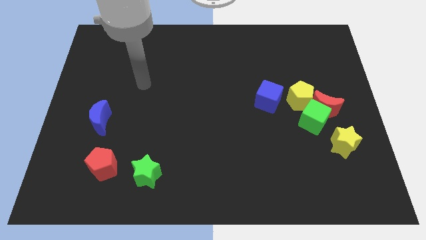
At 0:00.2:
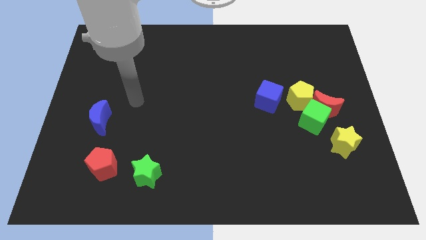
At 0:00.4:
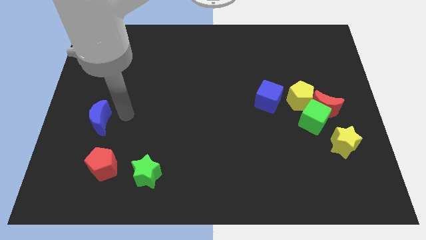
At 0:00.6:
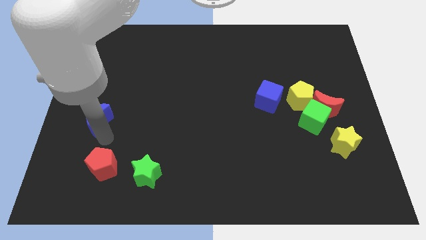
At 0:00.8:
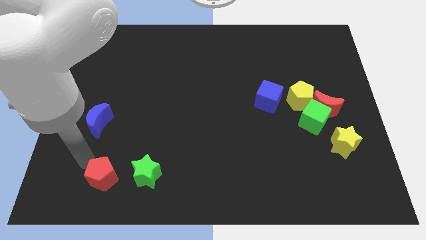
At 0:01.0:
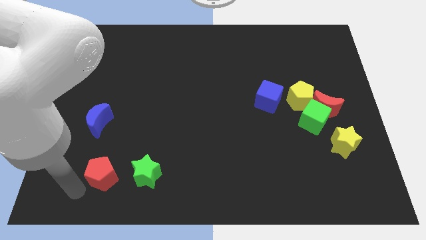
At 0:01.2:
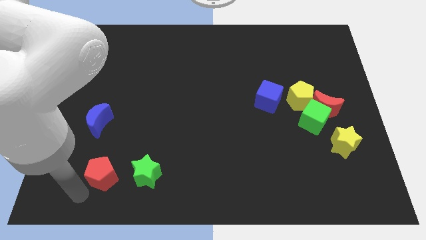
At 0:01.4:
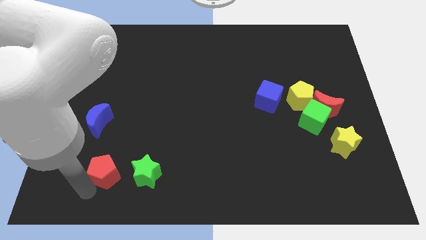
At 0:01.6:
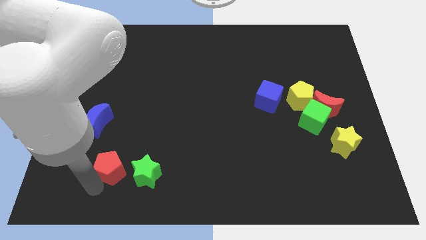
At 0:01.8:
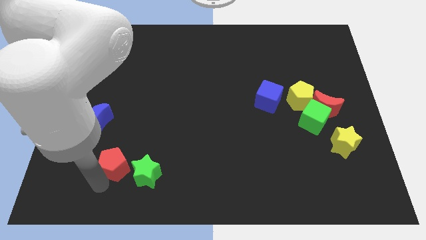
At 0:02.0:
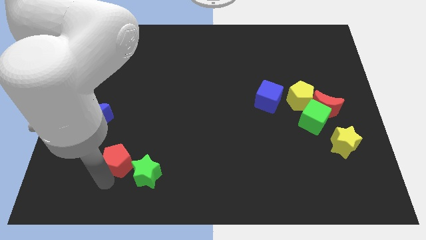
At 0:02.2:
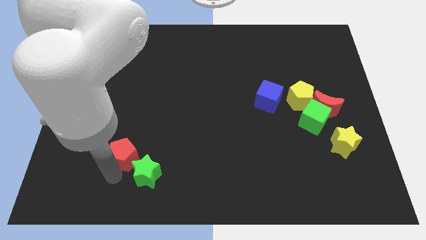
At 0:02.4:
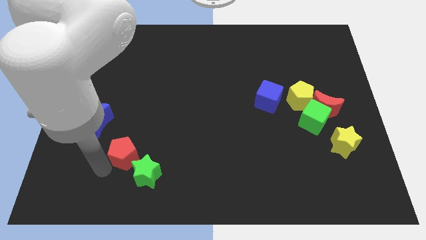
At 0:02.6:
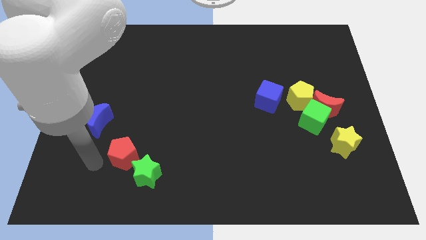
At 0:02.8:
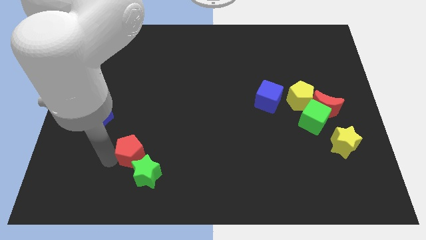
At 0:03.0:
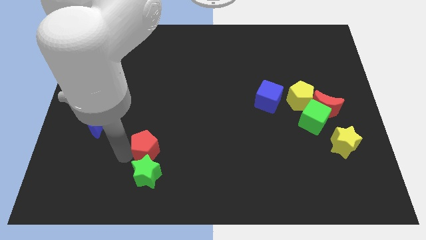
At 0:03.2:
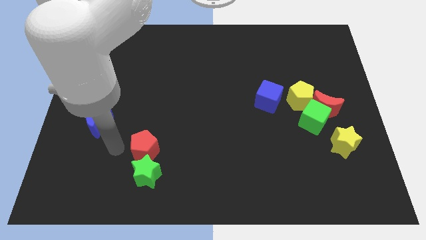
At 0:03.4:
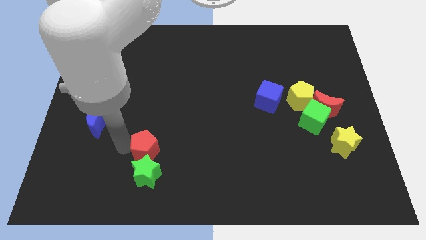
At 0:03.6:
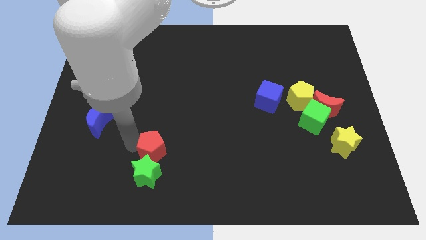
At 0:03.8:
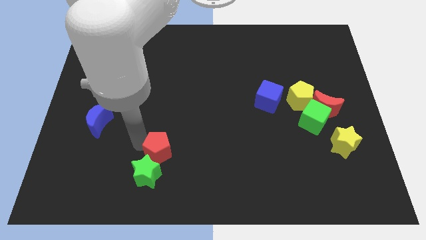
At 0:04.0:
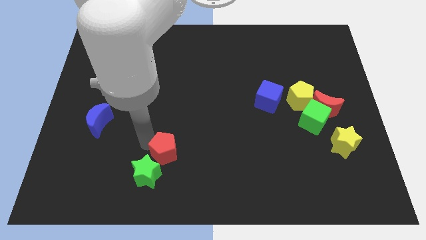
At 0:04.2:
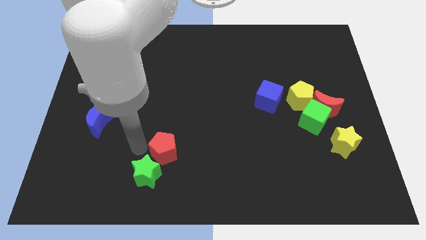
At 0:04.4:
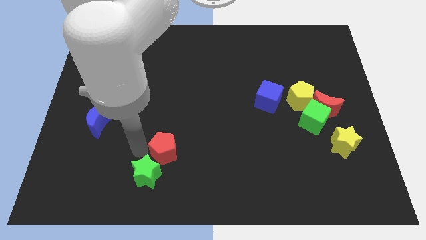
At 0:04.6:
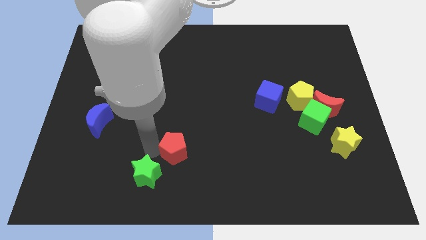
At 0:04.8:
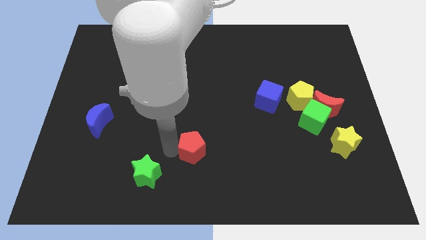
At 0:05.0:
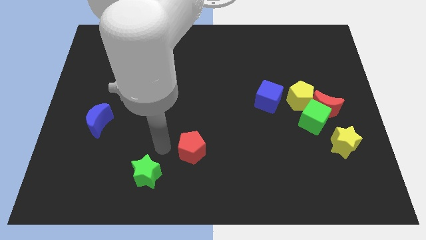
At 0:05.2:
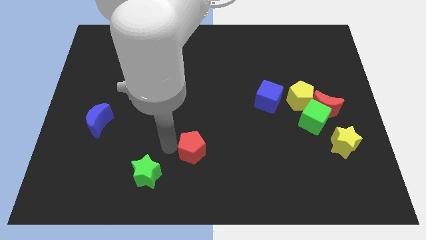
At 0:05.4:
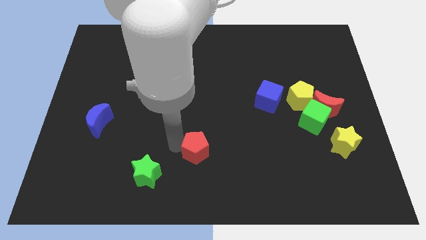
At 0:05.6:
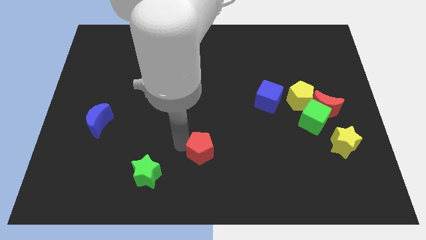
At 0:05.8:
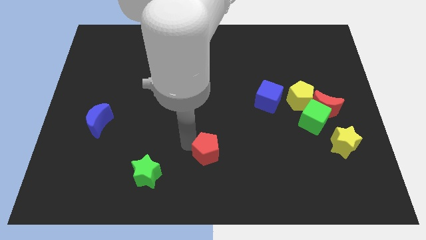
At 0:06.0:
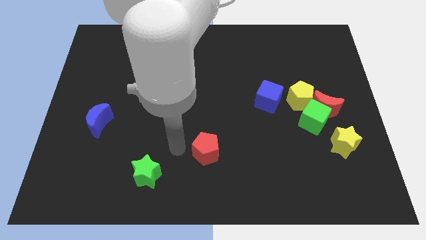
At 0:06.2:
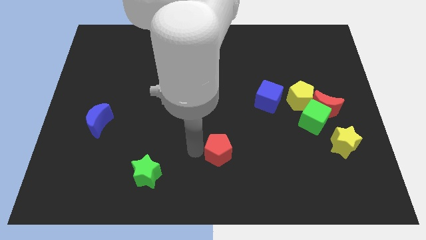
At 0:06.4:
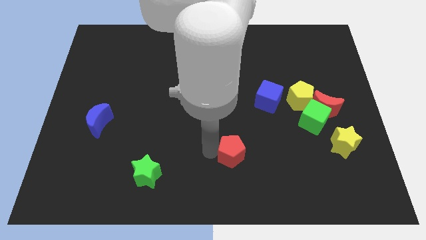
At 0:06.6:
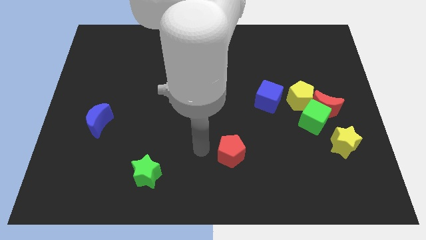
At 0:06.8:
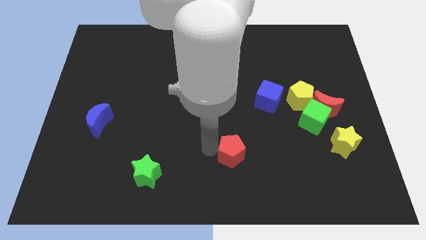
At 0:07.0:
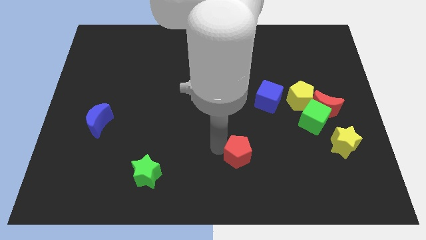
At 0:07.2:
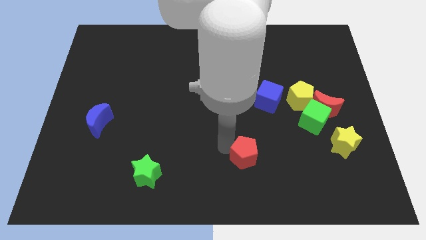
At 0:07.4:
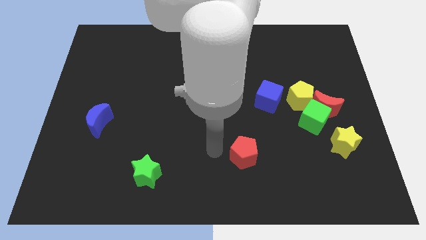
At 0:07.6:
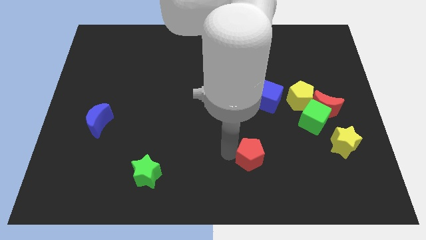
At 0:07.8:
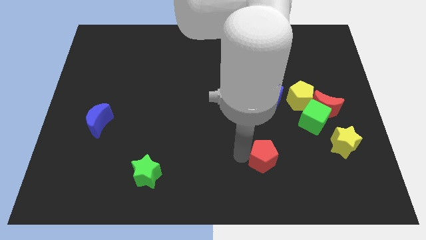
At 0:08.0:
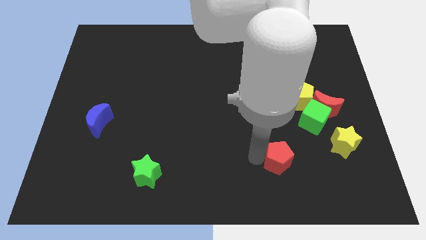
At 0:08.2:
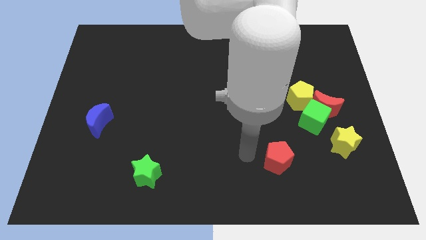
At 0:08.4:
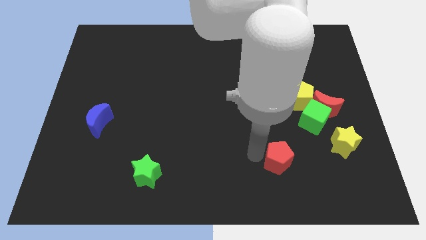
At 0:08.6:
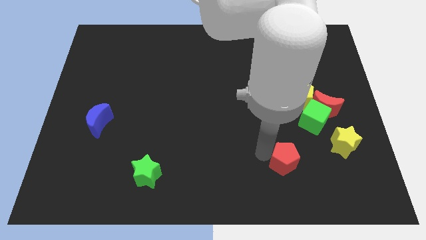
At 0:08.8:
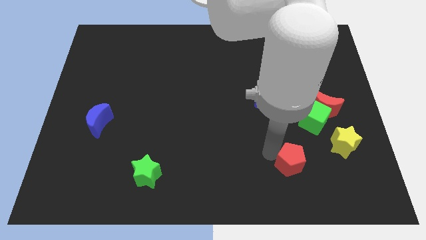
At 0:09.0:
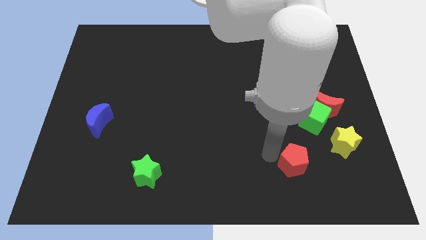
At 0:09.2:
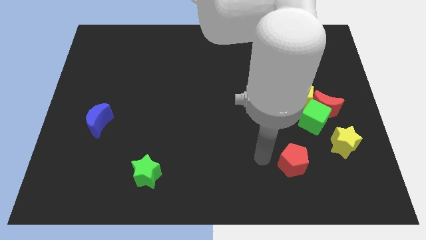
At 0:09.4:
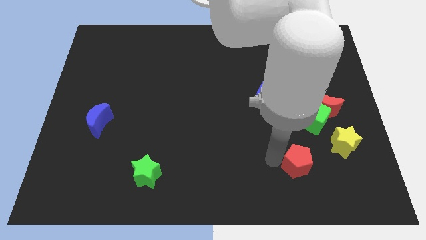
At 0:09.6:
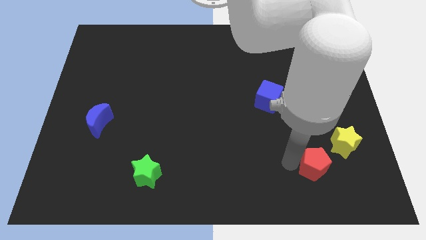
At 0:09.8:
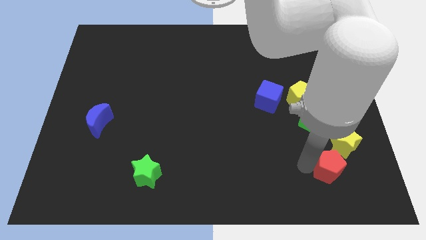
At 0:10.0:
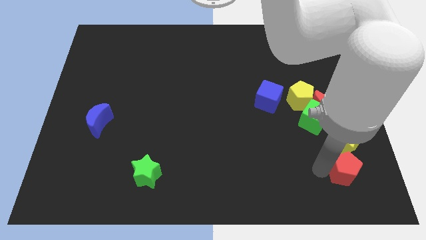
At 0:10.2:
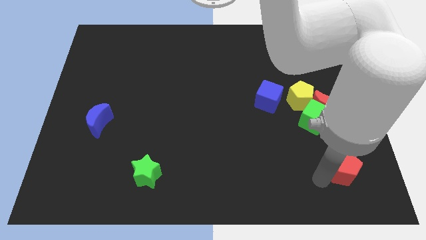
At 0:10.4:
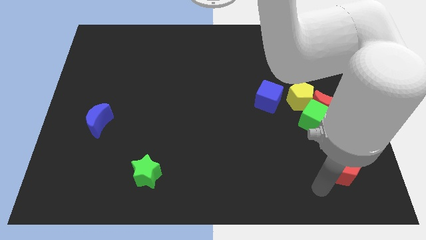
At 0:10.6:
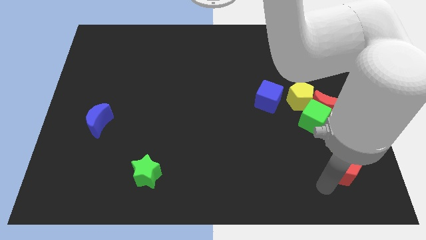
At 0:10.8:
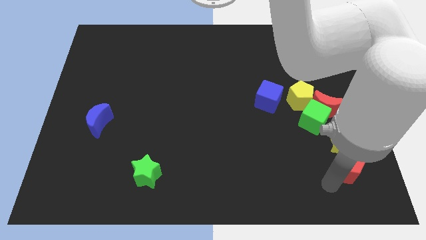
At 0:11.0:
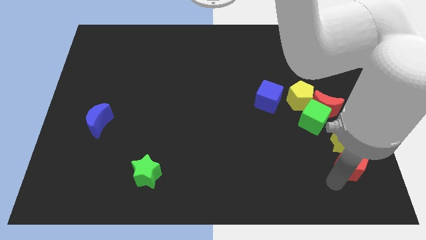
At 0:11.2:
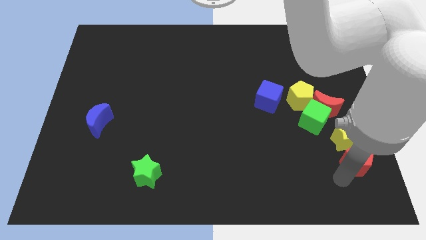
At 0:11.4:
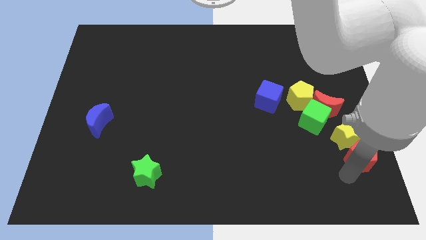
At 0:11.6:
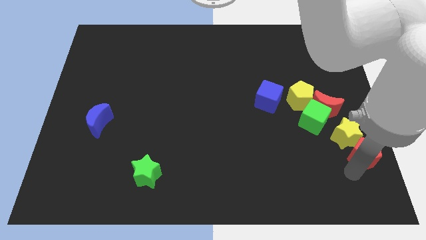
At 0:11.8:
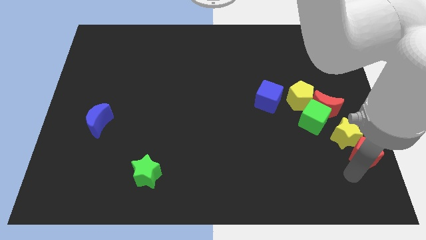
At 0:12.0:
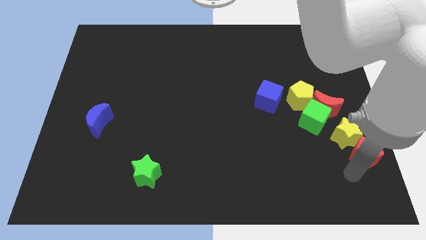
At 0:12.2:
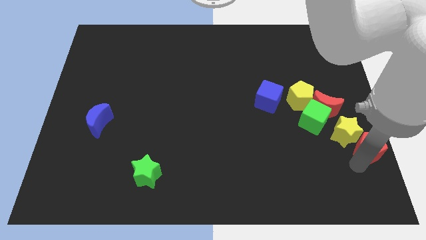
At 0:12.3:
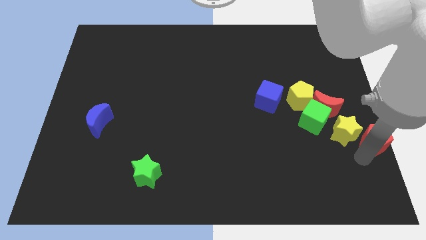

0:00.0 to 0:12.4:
move the red pentagon to the right side of the board
